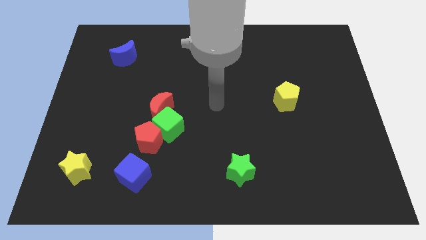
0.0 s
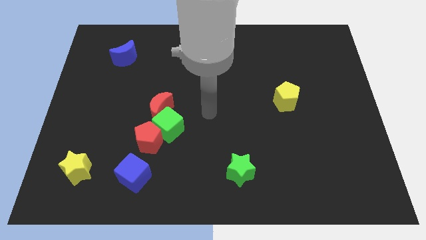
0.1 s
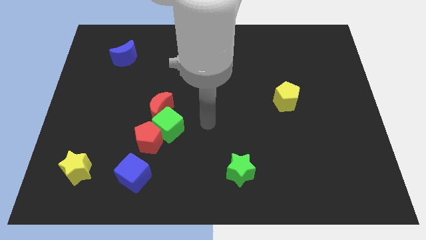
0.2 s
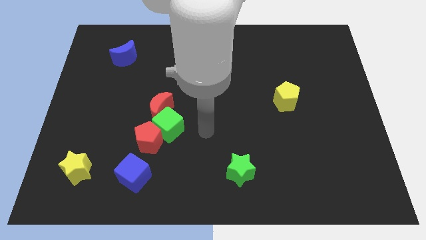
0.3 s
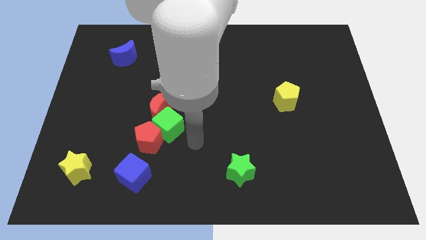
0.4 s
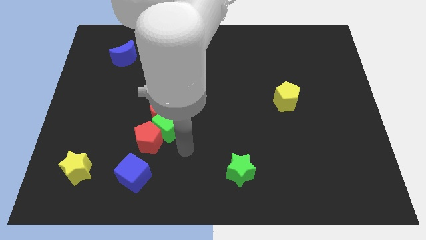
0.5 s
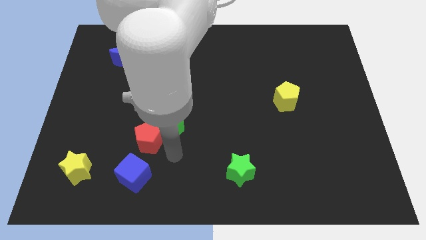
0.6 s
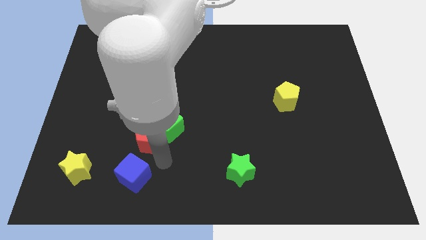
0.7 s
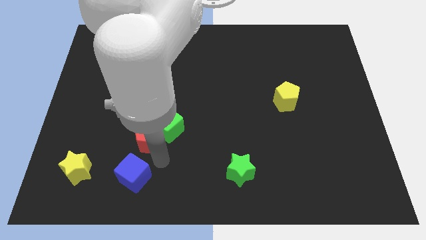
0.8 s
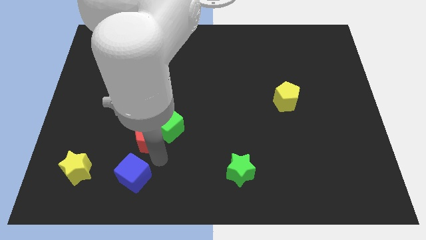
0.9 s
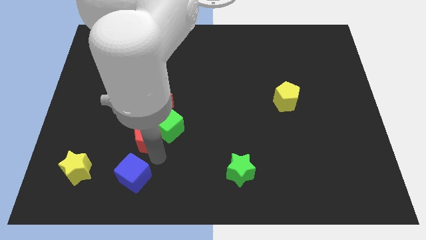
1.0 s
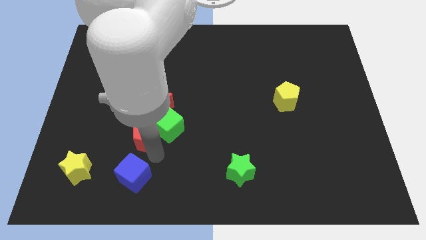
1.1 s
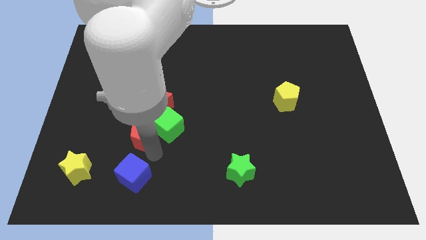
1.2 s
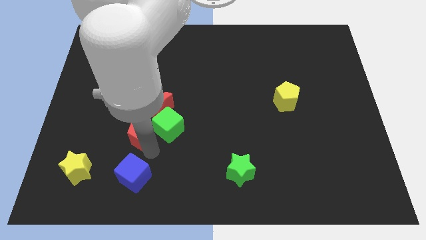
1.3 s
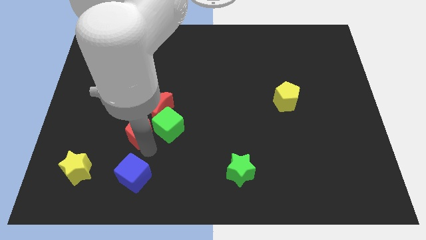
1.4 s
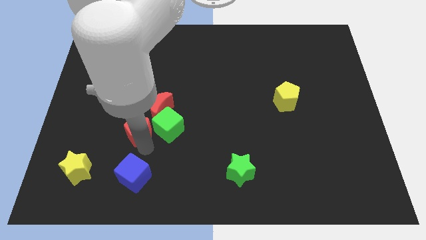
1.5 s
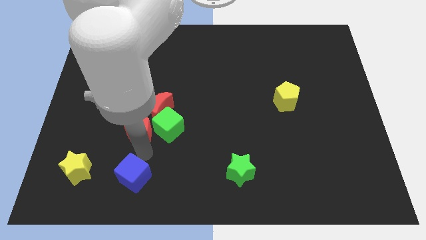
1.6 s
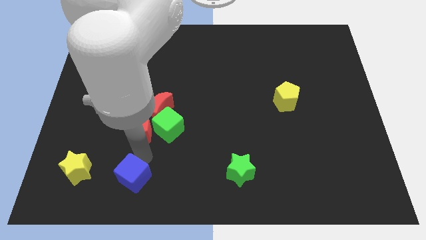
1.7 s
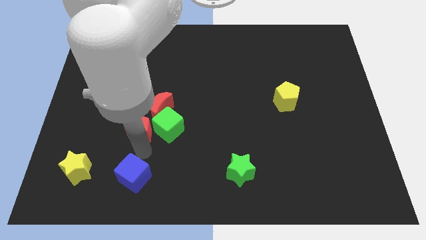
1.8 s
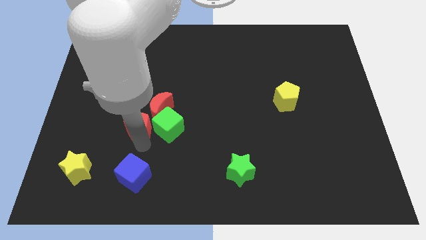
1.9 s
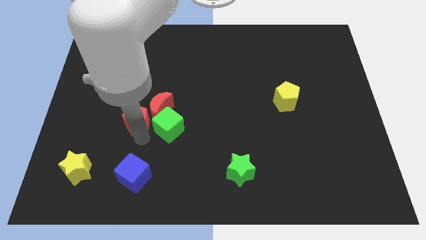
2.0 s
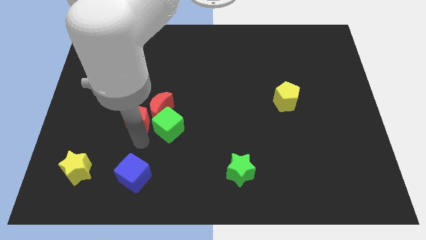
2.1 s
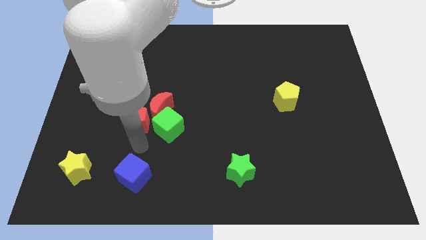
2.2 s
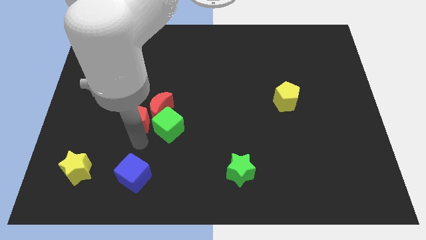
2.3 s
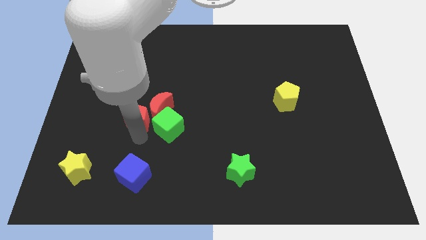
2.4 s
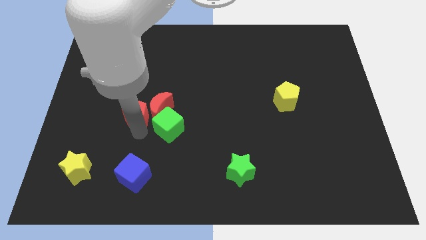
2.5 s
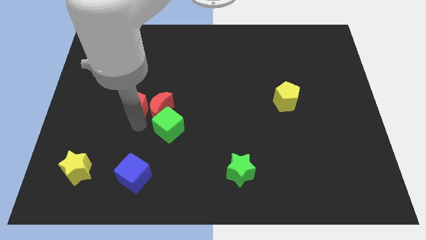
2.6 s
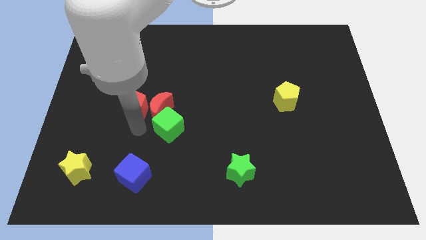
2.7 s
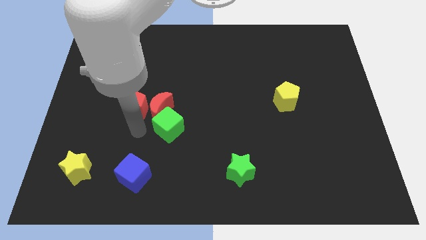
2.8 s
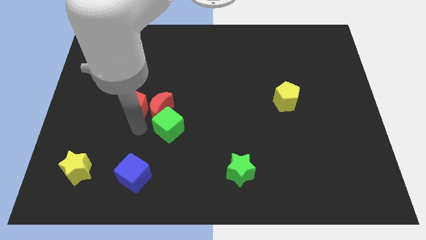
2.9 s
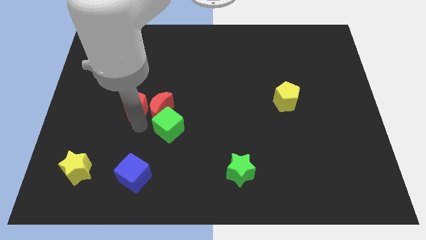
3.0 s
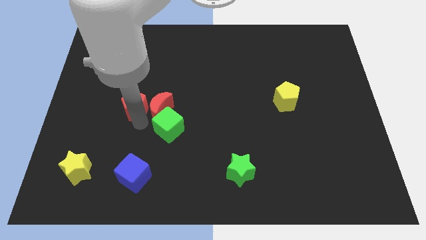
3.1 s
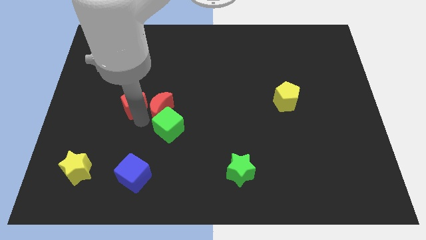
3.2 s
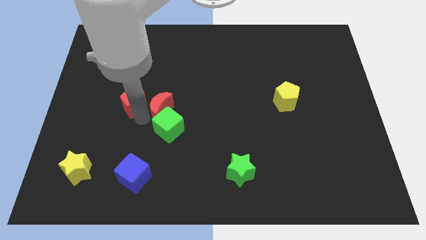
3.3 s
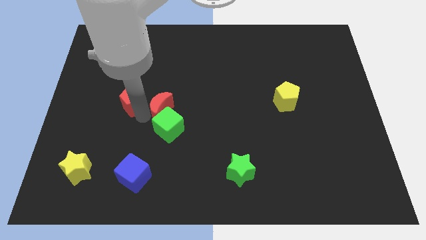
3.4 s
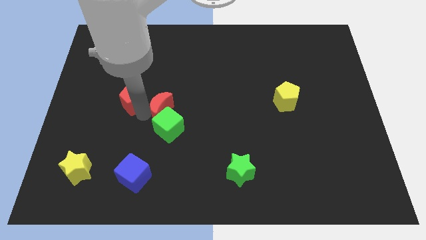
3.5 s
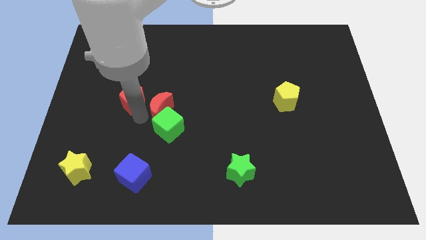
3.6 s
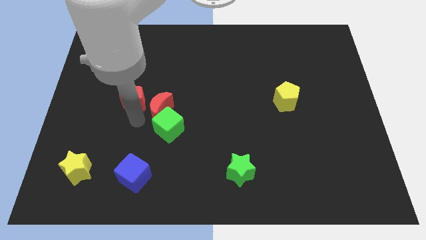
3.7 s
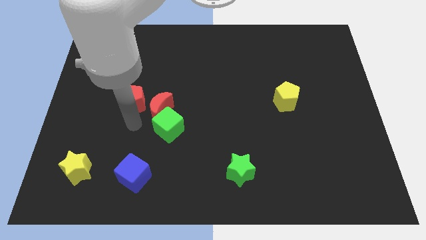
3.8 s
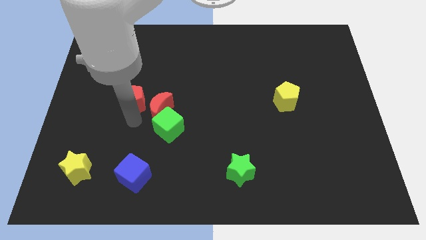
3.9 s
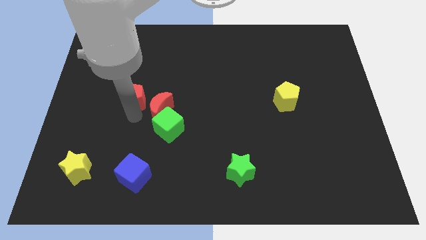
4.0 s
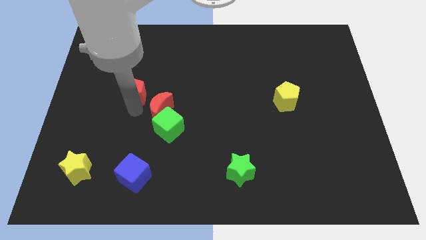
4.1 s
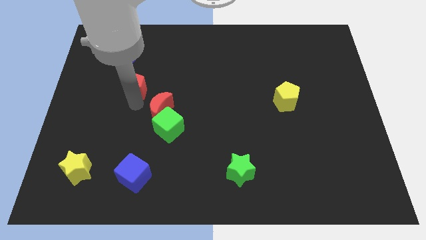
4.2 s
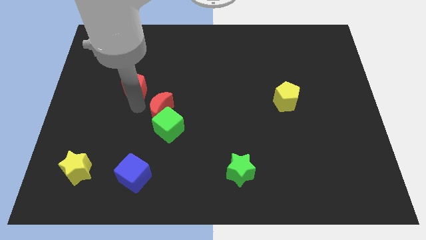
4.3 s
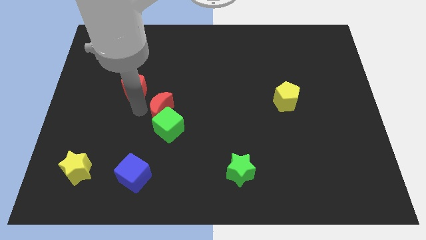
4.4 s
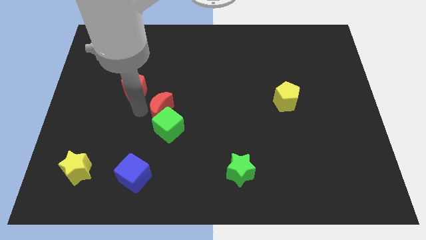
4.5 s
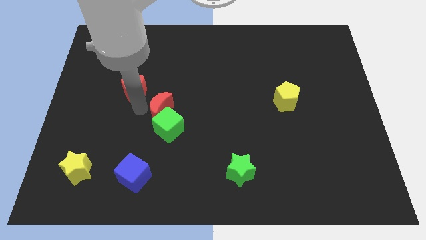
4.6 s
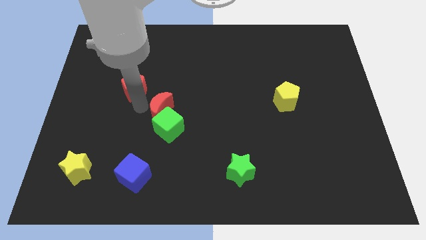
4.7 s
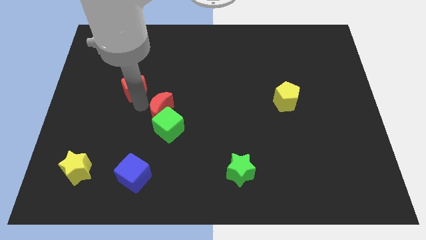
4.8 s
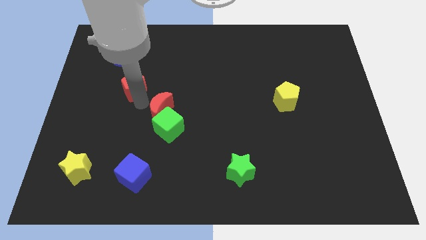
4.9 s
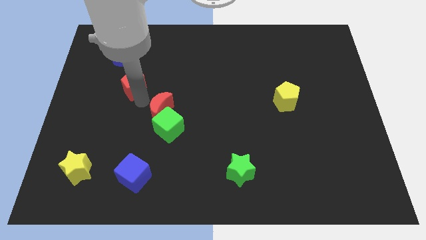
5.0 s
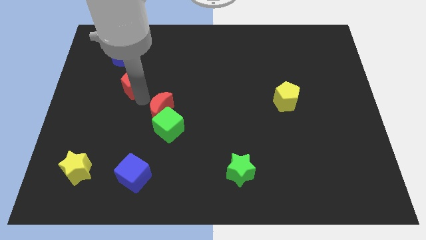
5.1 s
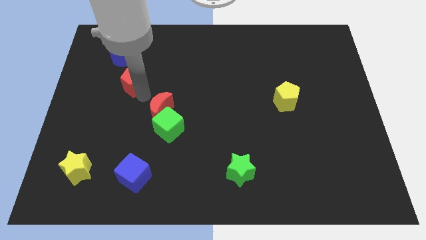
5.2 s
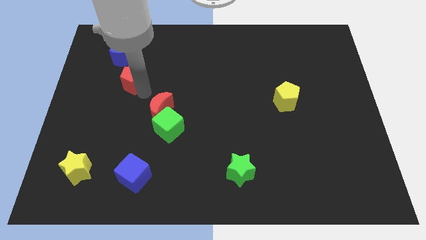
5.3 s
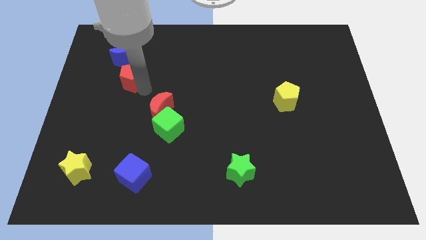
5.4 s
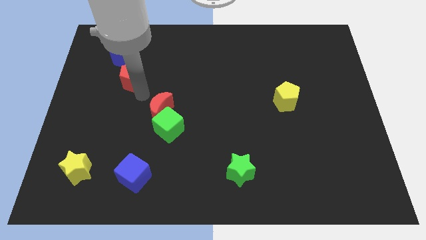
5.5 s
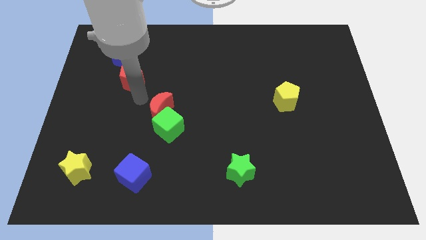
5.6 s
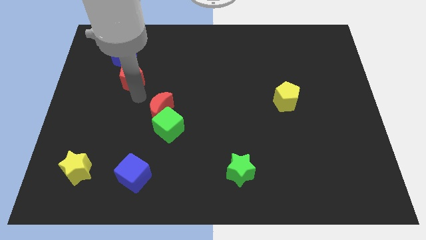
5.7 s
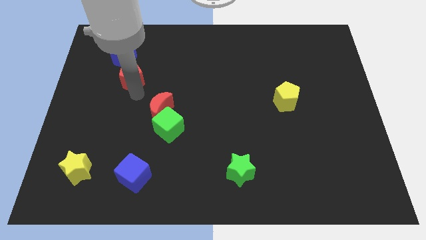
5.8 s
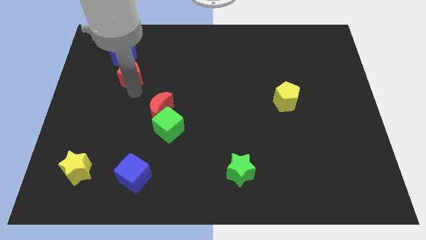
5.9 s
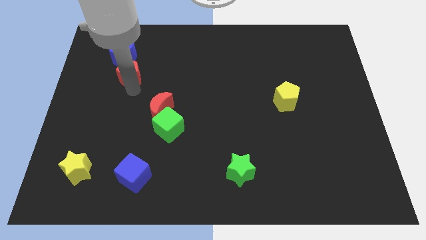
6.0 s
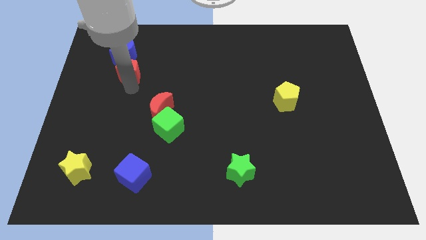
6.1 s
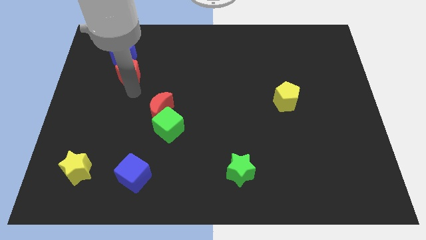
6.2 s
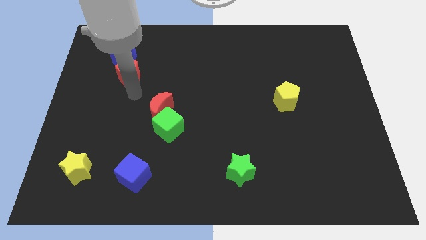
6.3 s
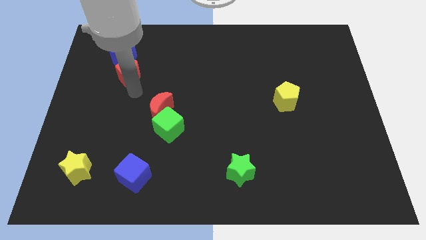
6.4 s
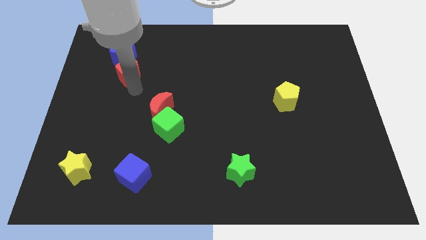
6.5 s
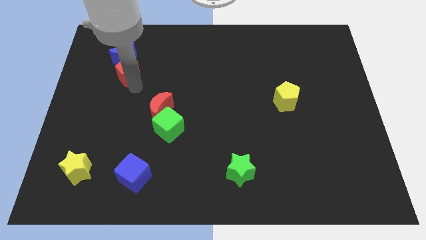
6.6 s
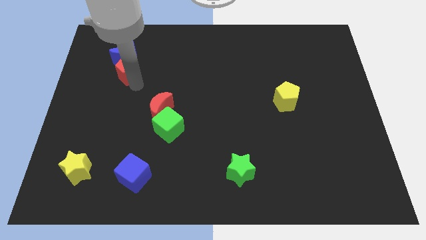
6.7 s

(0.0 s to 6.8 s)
push the red pentagon next to the blue moon

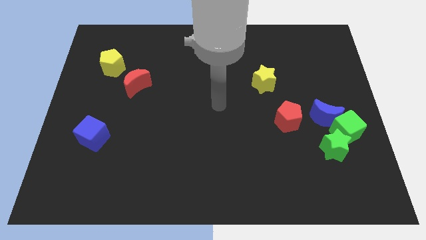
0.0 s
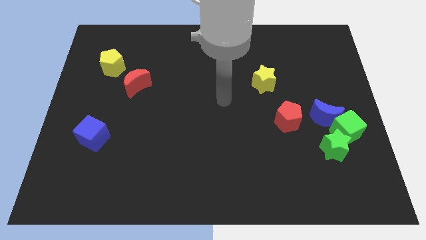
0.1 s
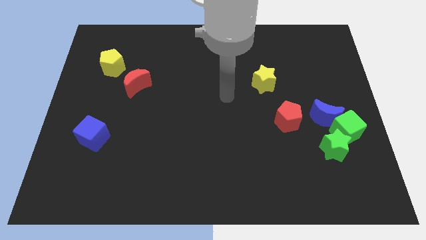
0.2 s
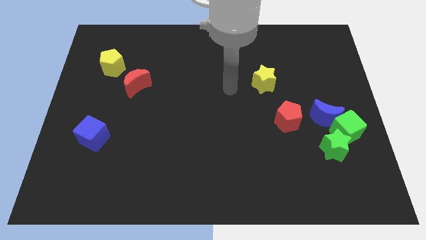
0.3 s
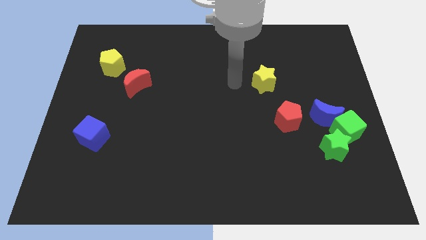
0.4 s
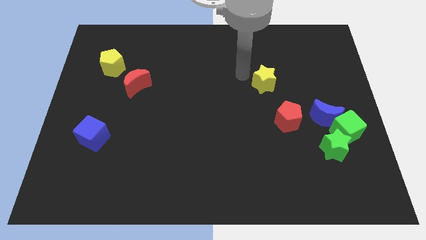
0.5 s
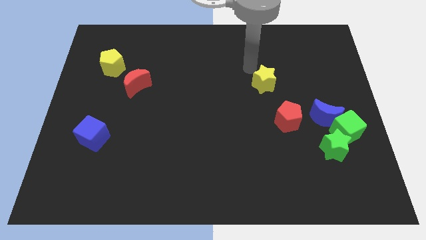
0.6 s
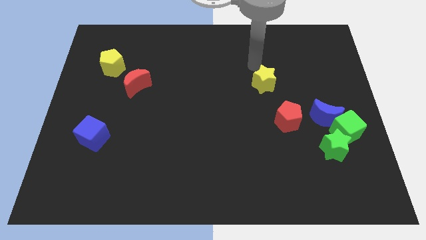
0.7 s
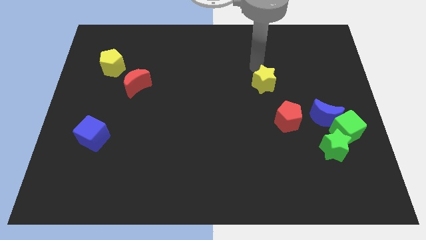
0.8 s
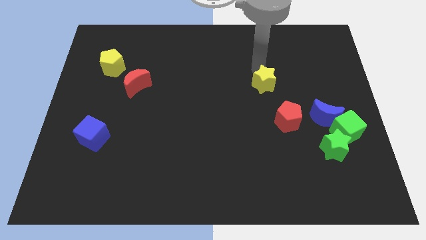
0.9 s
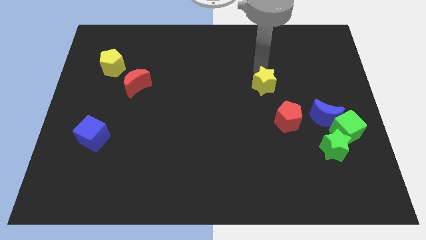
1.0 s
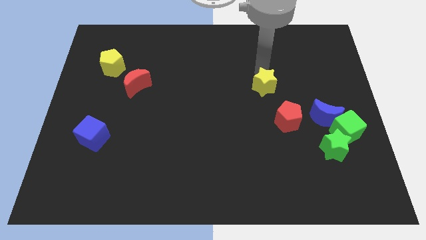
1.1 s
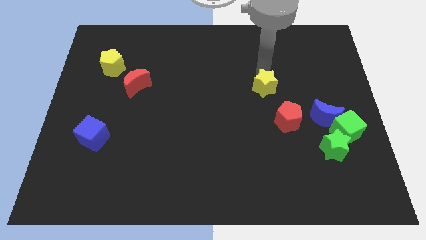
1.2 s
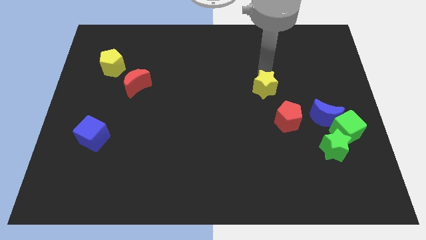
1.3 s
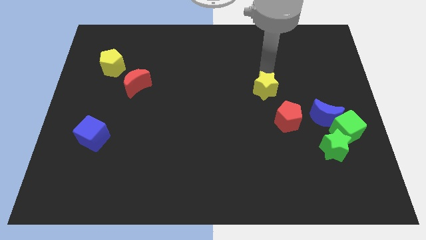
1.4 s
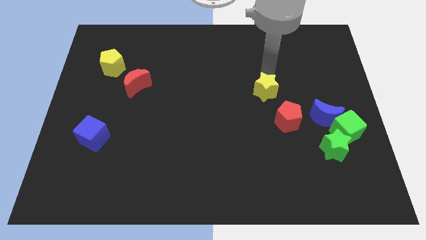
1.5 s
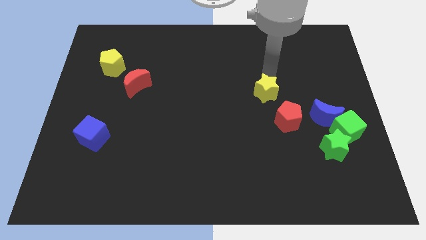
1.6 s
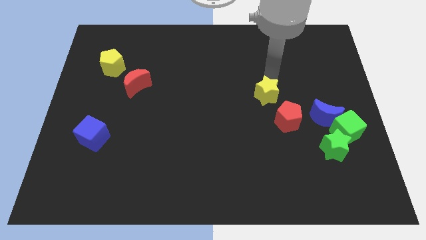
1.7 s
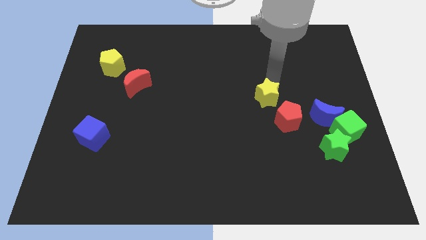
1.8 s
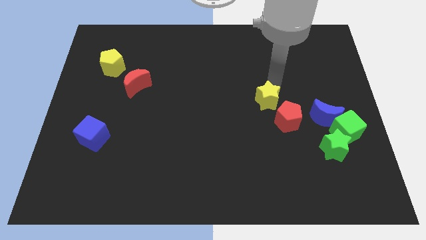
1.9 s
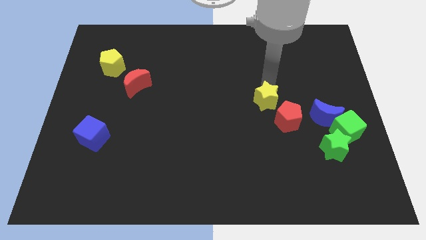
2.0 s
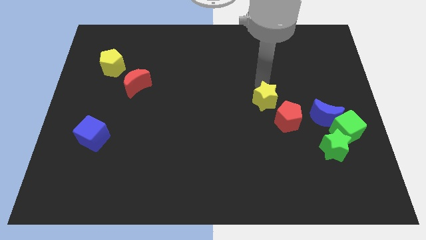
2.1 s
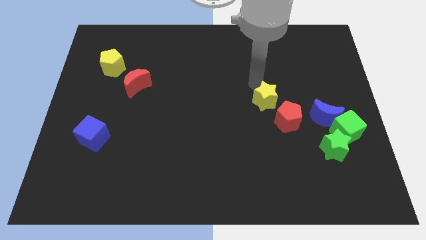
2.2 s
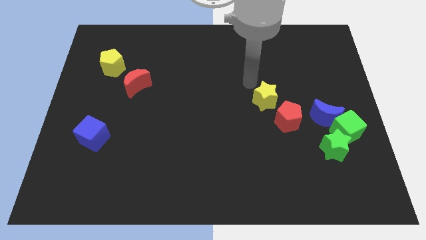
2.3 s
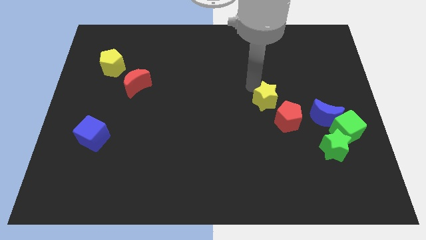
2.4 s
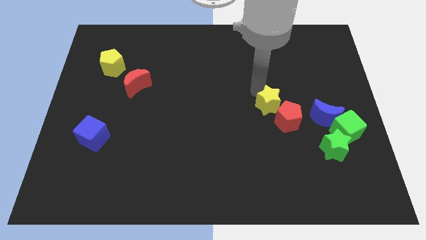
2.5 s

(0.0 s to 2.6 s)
slide the yellow star towards the red pentagon
